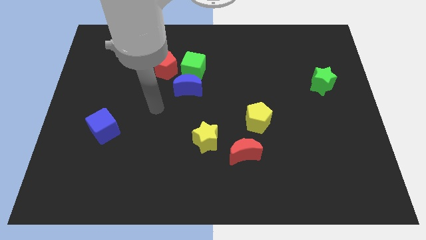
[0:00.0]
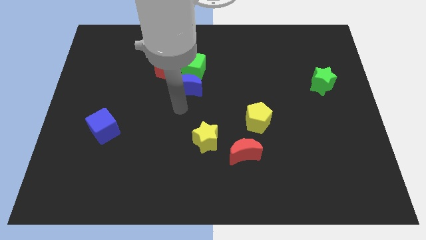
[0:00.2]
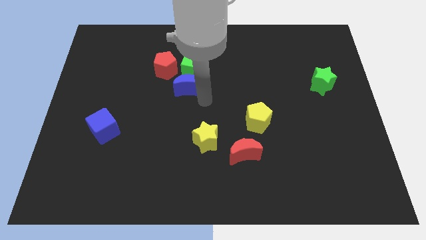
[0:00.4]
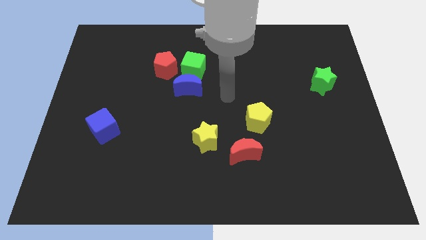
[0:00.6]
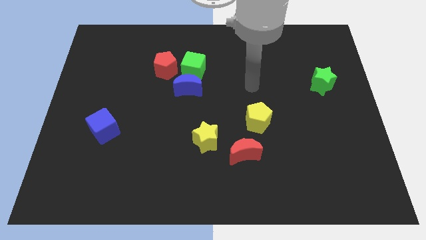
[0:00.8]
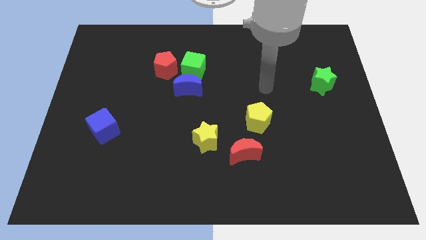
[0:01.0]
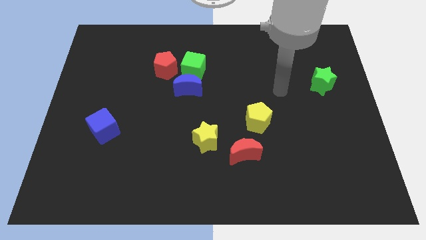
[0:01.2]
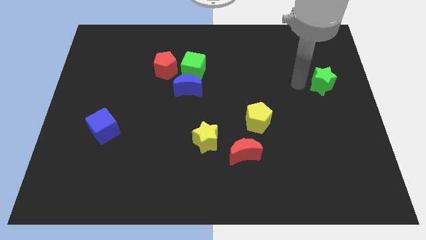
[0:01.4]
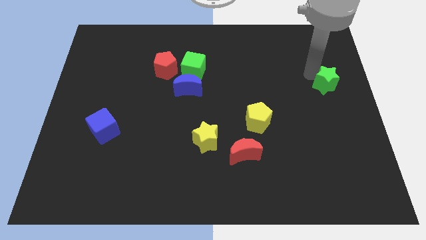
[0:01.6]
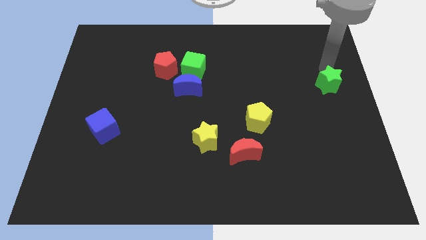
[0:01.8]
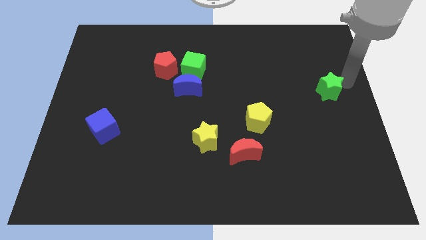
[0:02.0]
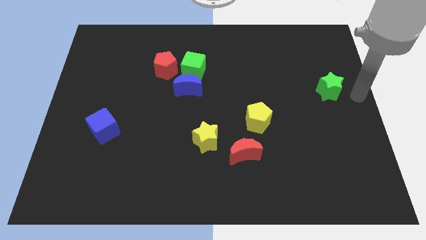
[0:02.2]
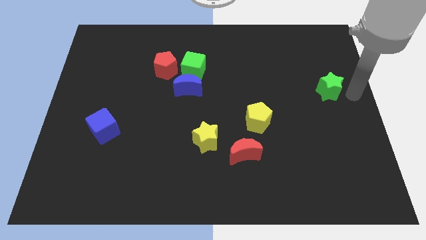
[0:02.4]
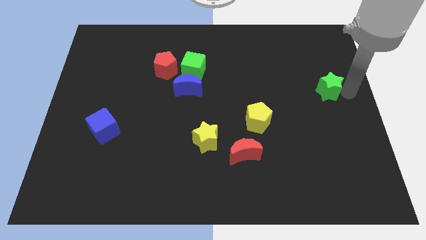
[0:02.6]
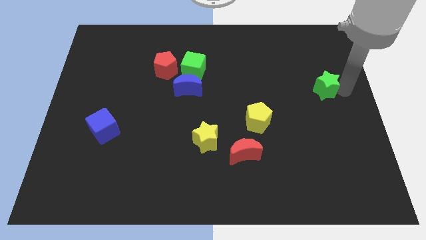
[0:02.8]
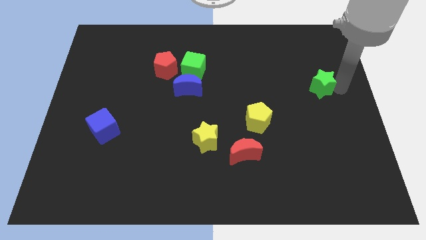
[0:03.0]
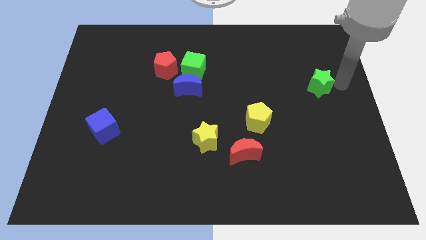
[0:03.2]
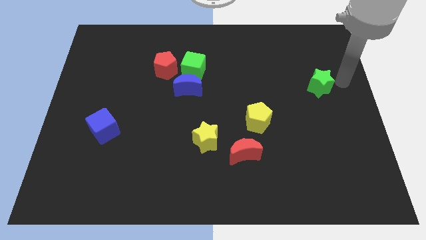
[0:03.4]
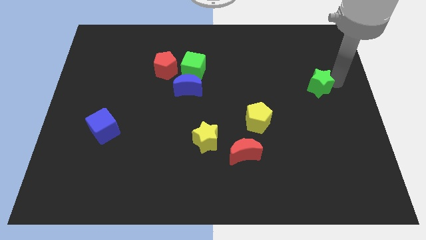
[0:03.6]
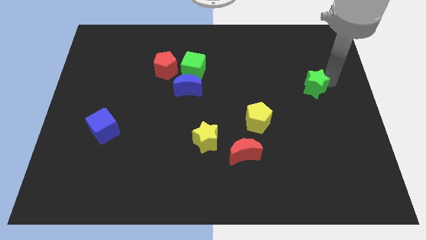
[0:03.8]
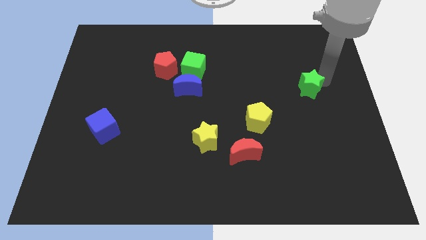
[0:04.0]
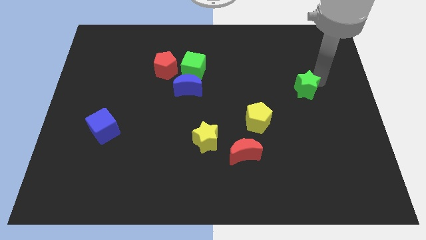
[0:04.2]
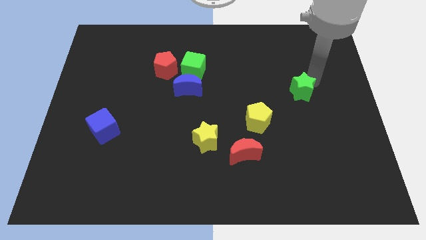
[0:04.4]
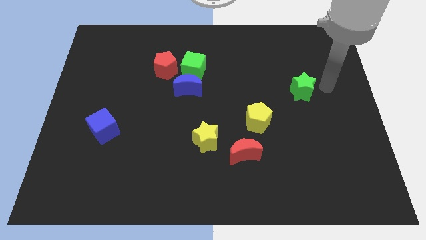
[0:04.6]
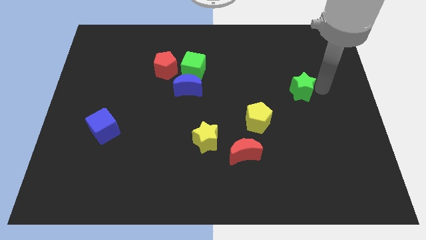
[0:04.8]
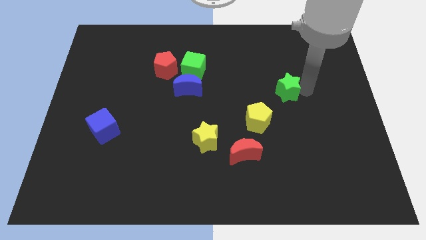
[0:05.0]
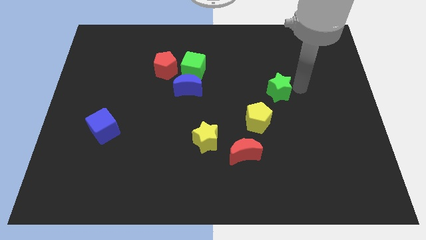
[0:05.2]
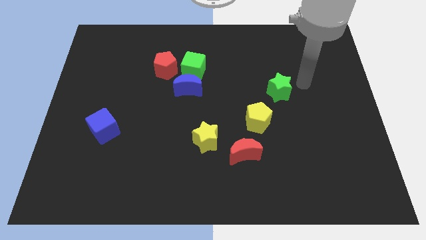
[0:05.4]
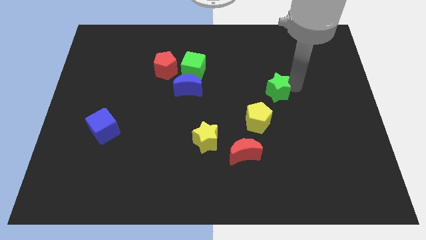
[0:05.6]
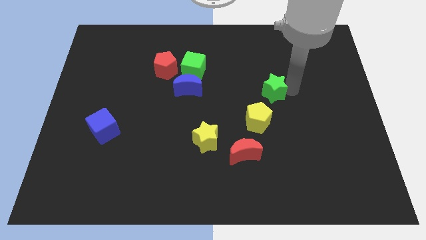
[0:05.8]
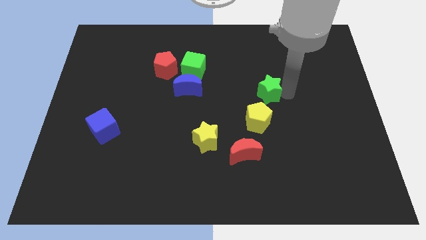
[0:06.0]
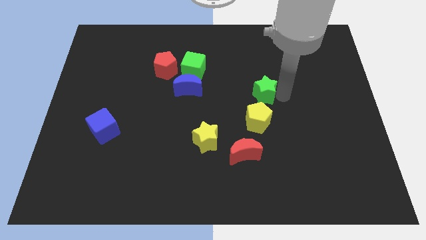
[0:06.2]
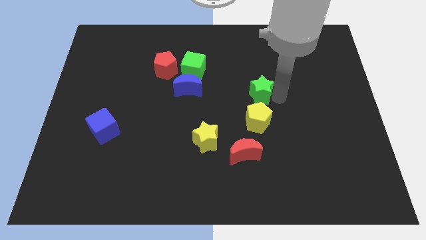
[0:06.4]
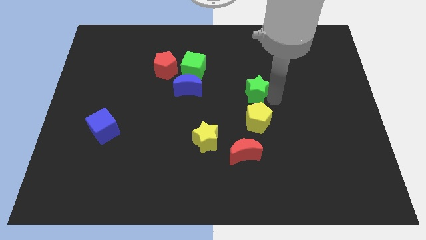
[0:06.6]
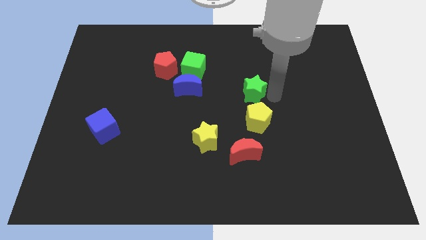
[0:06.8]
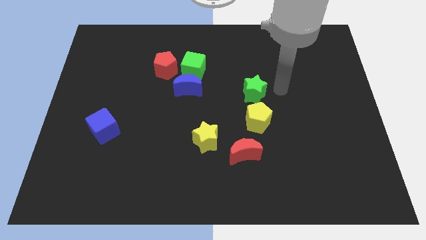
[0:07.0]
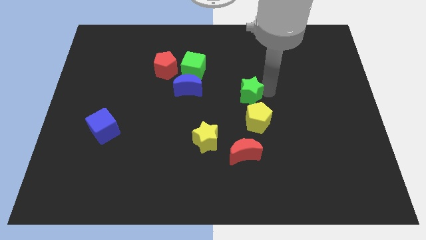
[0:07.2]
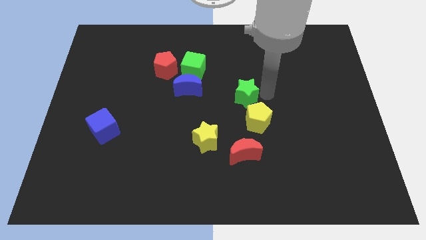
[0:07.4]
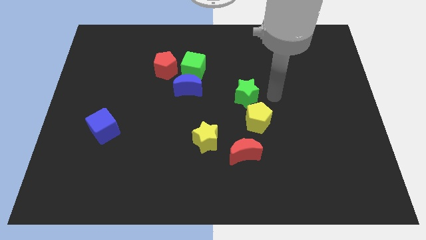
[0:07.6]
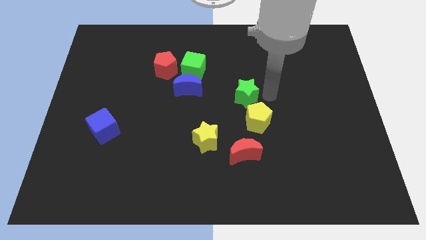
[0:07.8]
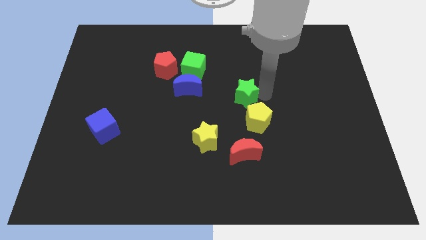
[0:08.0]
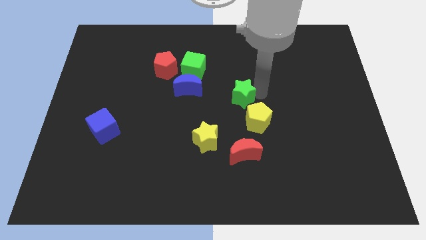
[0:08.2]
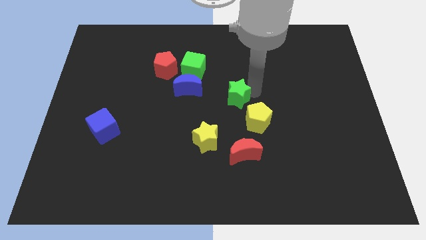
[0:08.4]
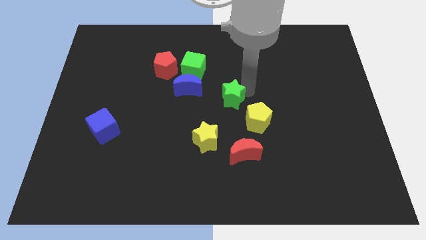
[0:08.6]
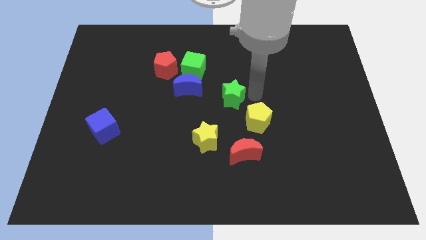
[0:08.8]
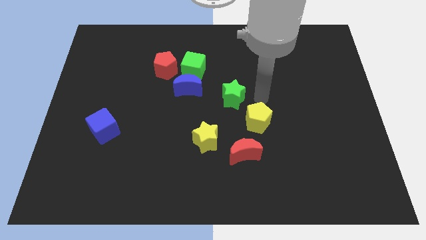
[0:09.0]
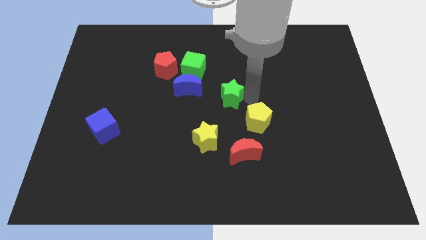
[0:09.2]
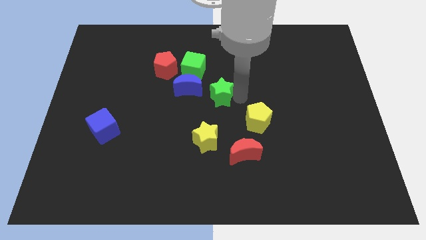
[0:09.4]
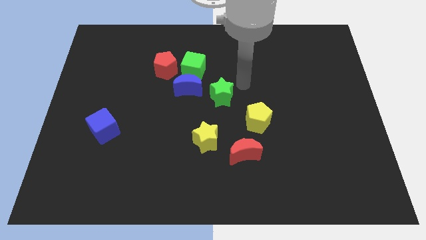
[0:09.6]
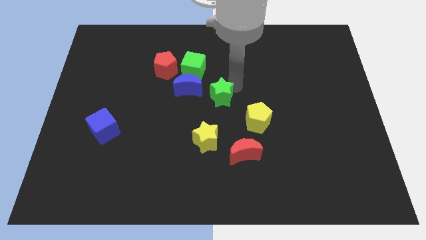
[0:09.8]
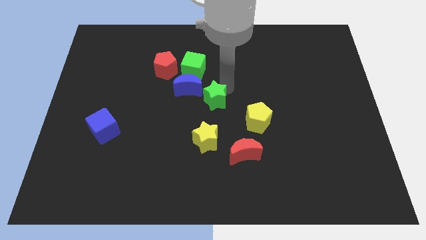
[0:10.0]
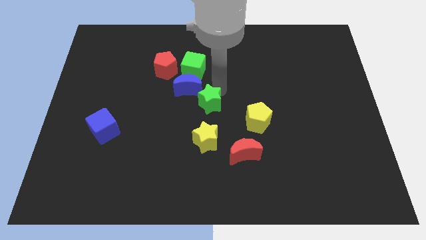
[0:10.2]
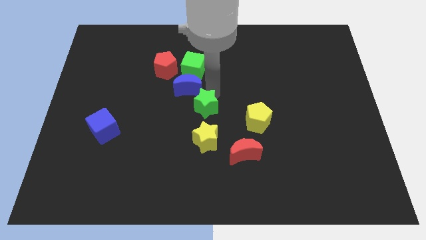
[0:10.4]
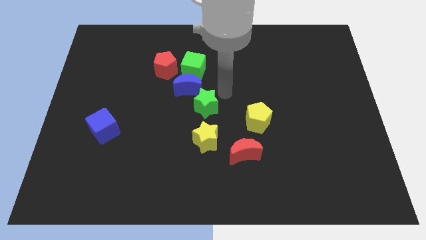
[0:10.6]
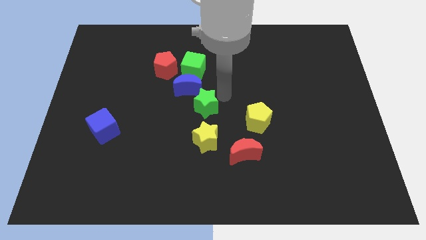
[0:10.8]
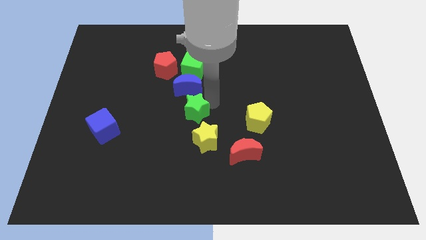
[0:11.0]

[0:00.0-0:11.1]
push the green star to the top left side of the yellow star

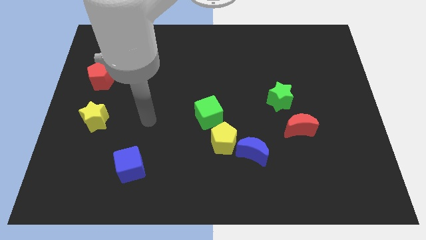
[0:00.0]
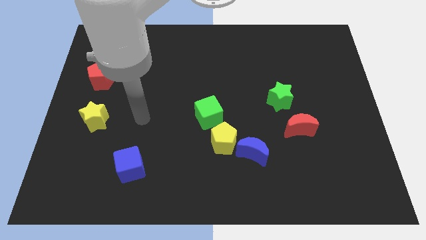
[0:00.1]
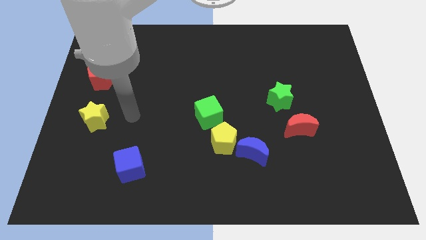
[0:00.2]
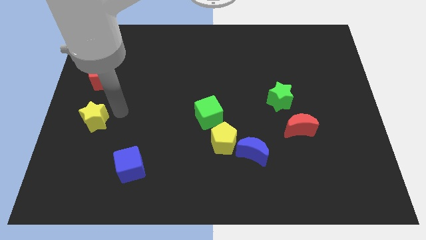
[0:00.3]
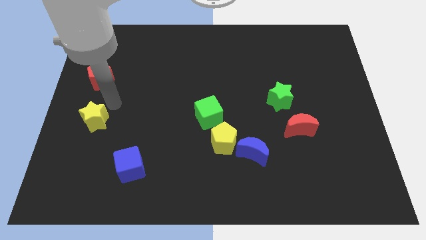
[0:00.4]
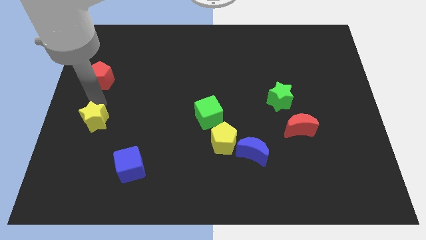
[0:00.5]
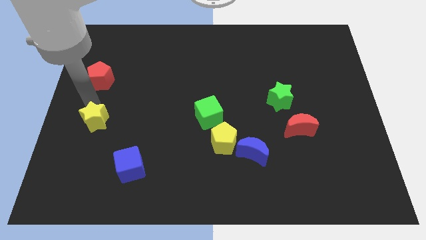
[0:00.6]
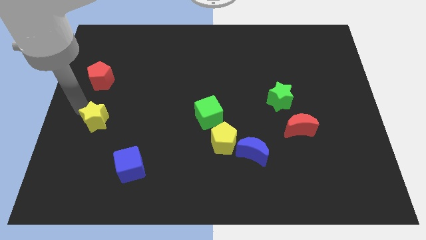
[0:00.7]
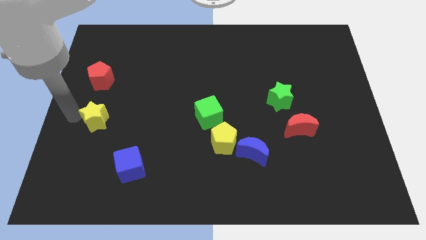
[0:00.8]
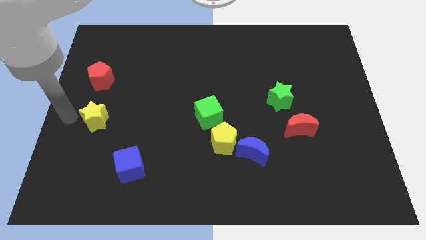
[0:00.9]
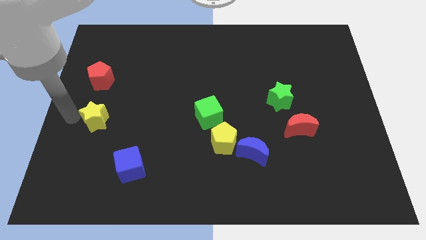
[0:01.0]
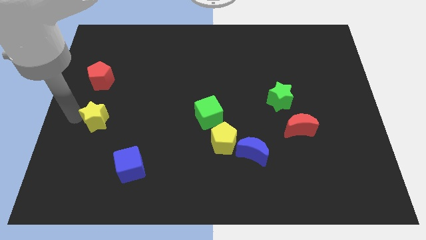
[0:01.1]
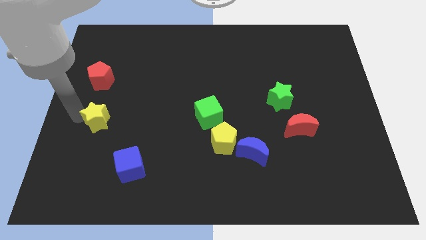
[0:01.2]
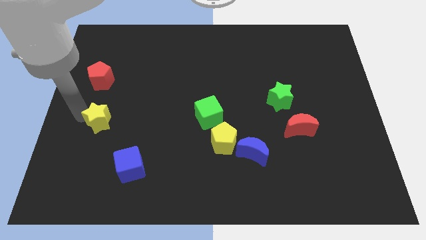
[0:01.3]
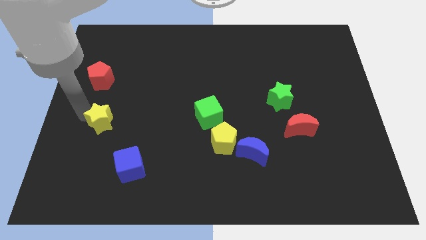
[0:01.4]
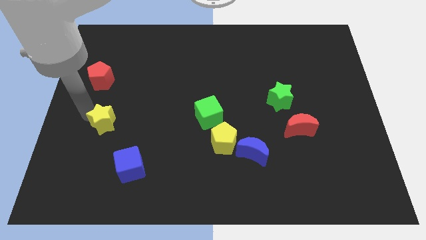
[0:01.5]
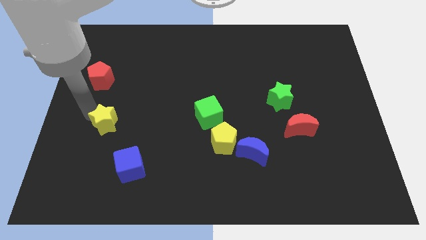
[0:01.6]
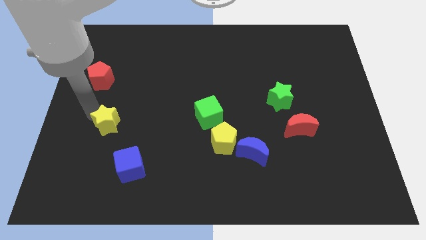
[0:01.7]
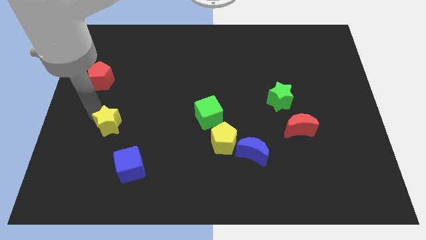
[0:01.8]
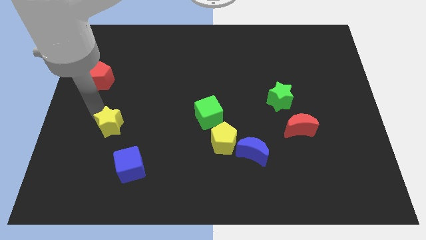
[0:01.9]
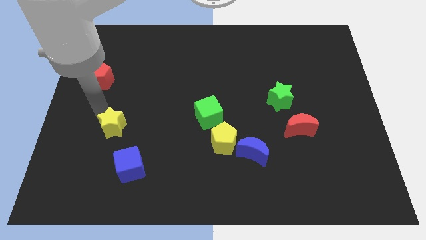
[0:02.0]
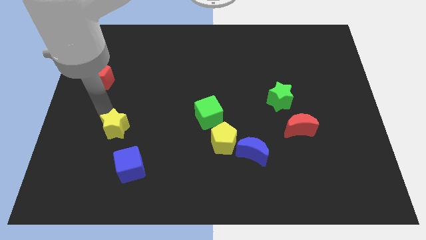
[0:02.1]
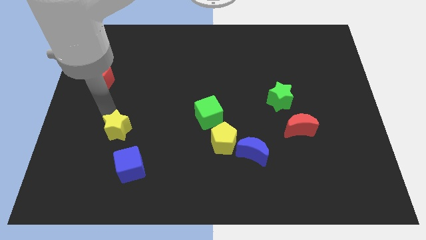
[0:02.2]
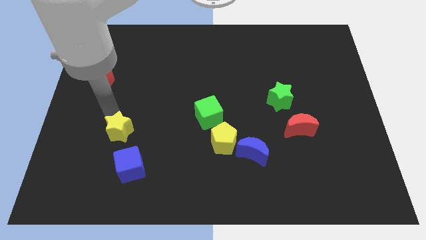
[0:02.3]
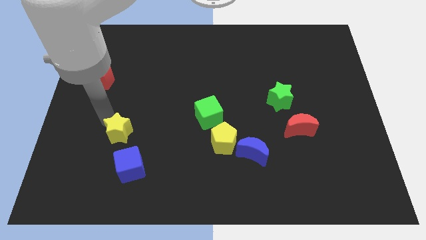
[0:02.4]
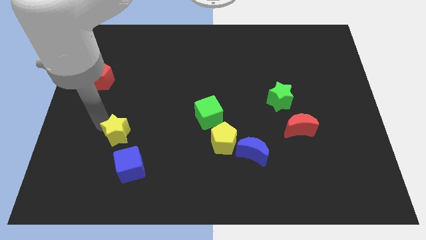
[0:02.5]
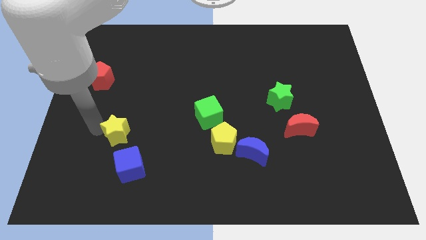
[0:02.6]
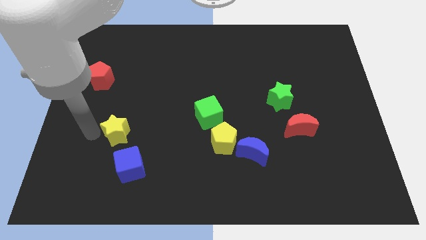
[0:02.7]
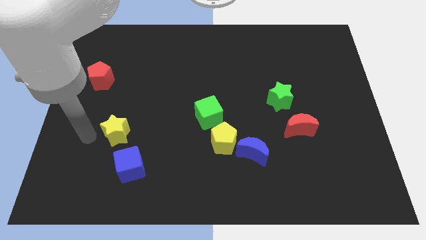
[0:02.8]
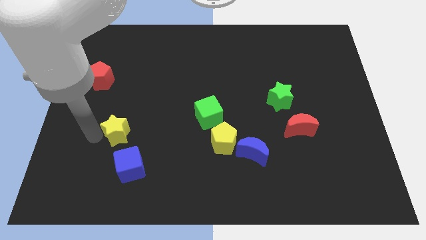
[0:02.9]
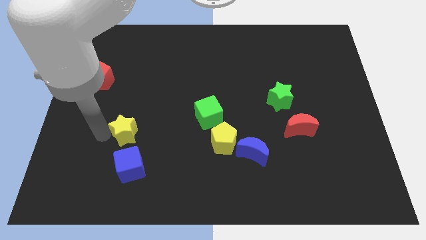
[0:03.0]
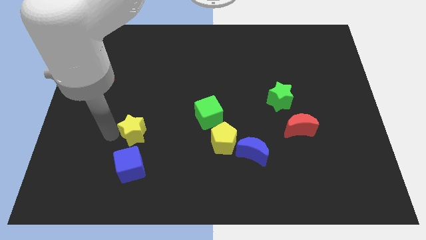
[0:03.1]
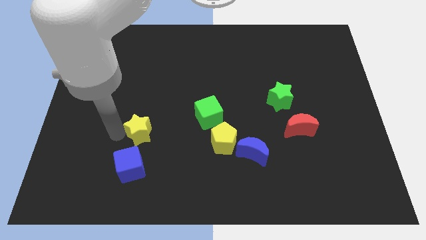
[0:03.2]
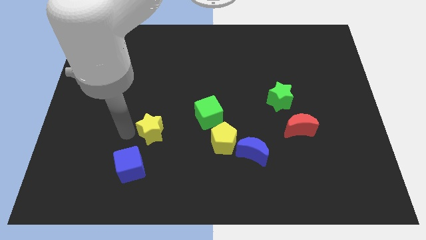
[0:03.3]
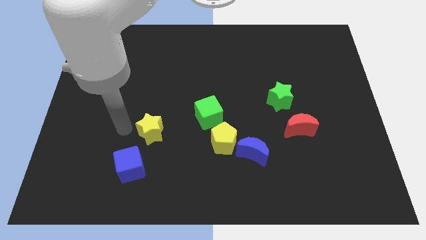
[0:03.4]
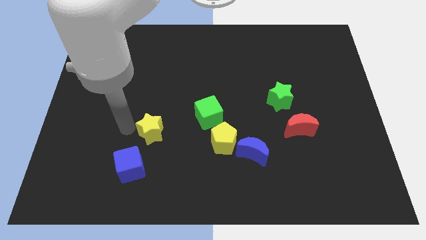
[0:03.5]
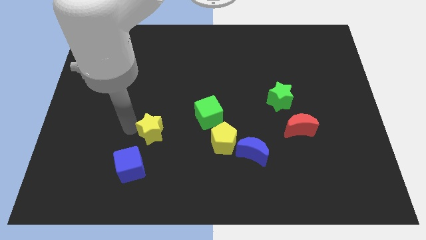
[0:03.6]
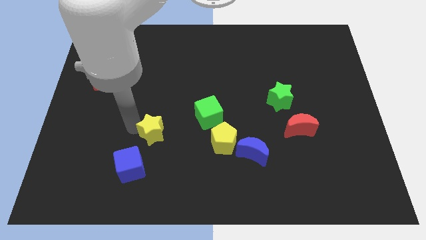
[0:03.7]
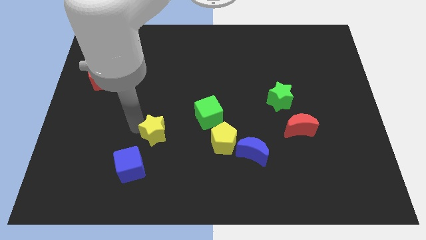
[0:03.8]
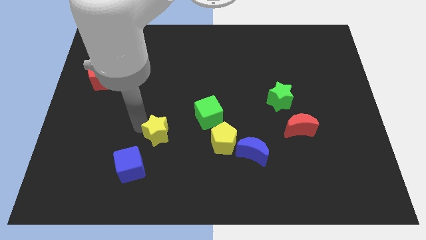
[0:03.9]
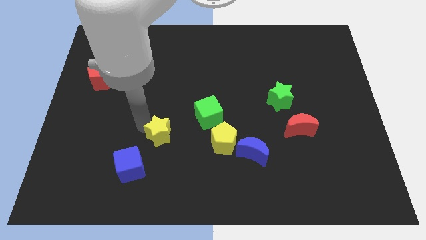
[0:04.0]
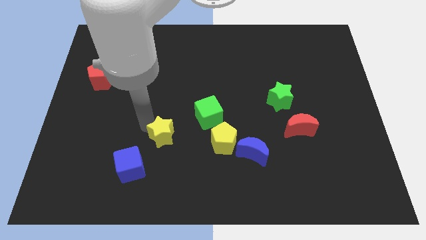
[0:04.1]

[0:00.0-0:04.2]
slide the yellow star to the bottom left side of the green cube
